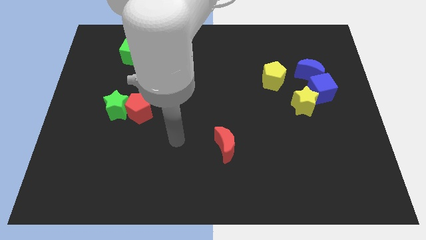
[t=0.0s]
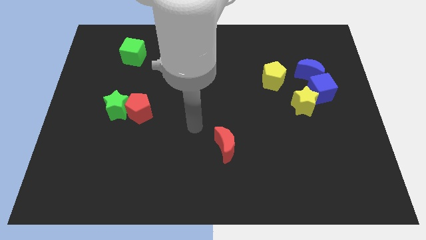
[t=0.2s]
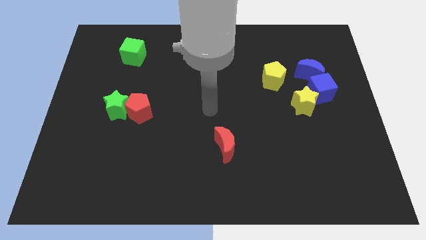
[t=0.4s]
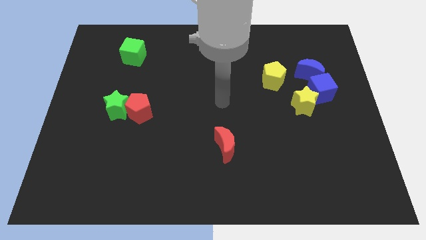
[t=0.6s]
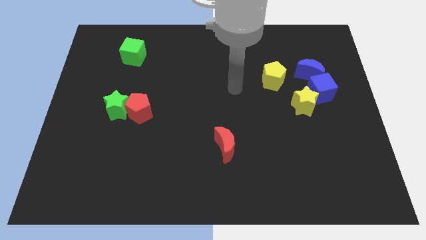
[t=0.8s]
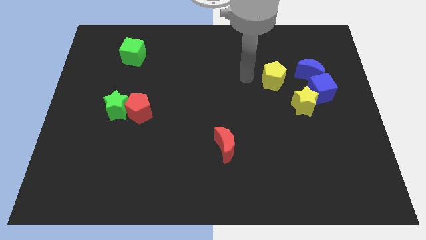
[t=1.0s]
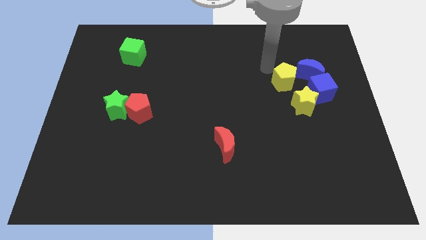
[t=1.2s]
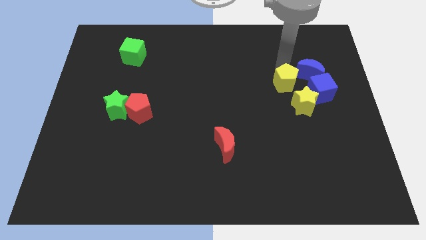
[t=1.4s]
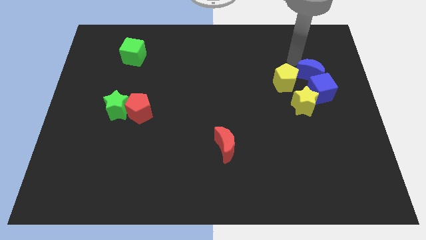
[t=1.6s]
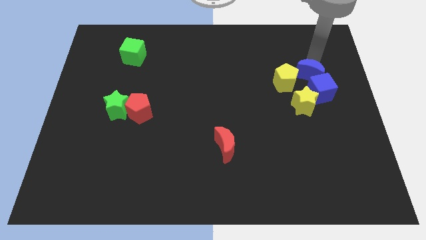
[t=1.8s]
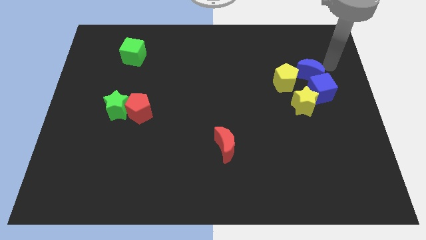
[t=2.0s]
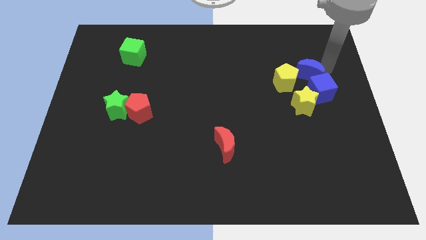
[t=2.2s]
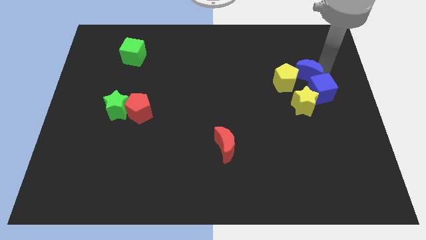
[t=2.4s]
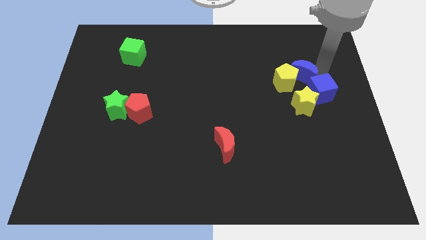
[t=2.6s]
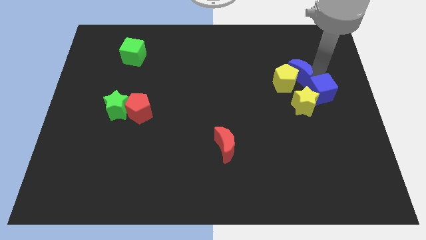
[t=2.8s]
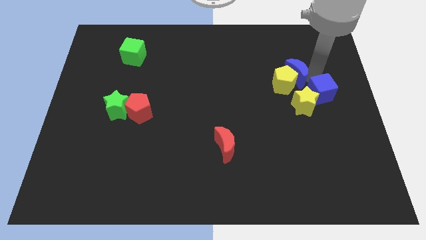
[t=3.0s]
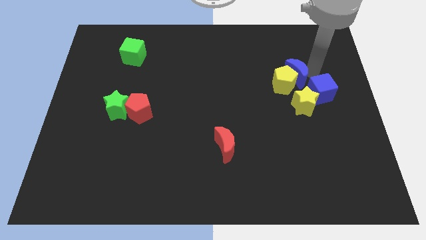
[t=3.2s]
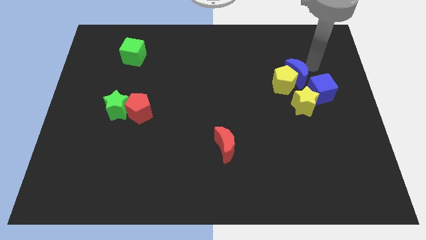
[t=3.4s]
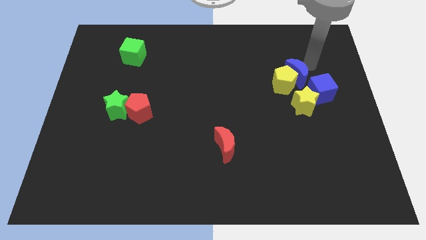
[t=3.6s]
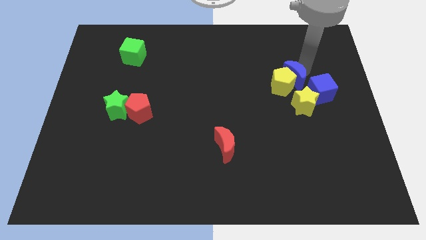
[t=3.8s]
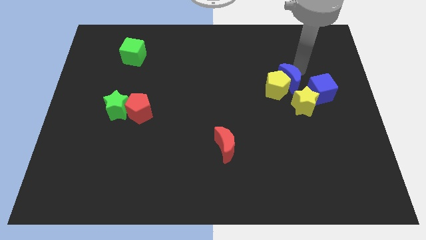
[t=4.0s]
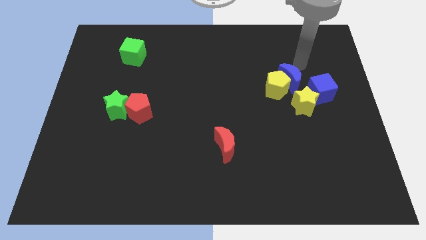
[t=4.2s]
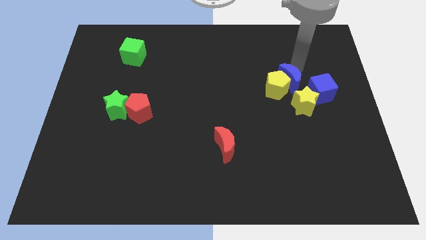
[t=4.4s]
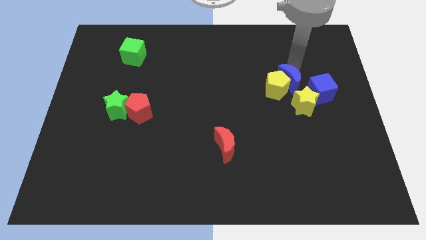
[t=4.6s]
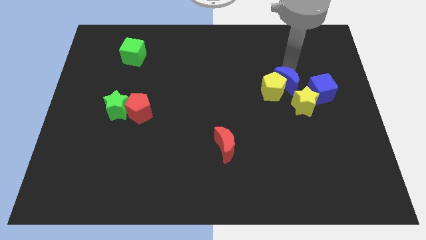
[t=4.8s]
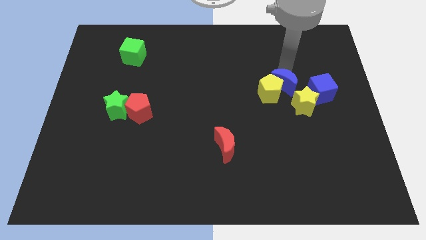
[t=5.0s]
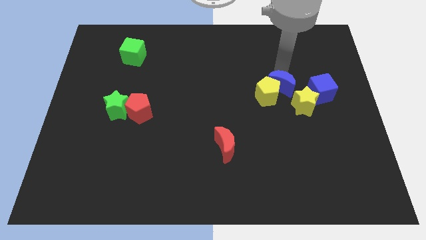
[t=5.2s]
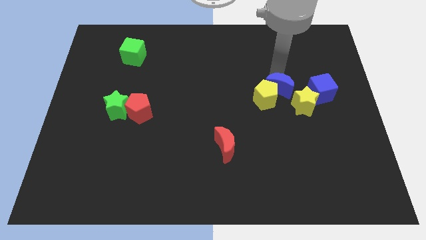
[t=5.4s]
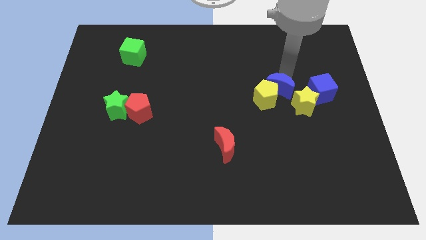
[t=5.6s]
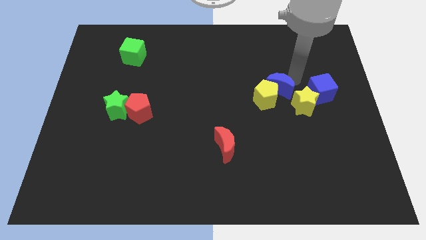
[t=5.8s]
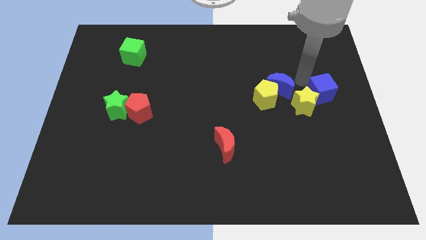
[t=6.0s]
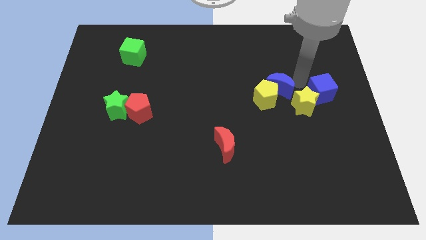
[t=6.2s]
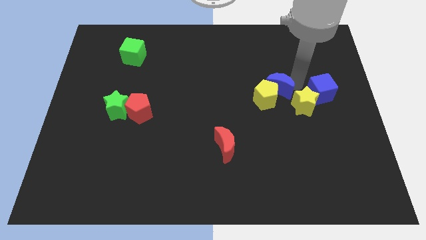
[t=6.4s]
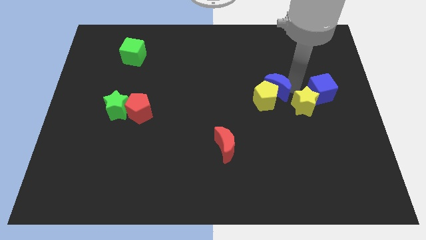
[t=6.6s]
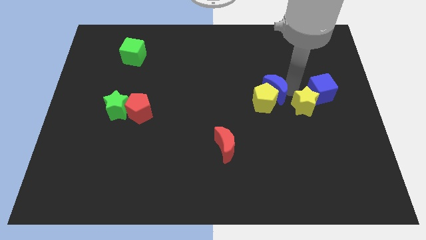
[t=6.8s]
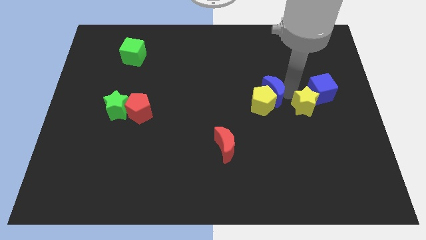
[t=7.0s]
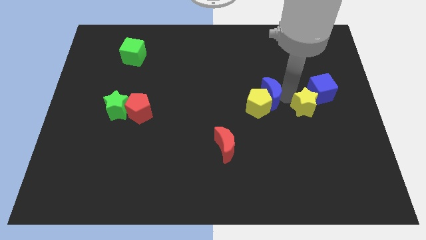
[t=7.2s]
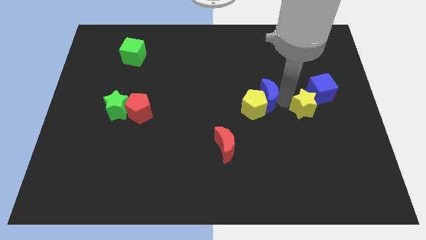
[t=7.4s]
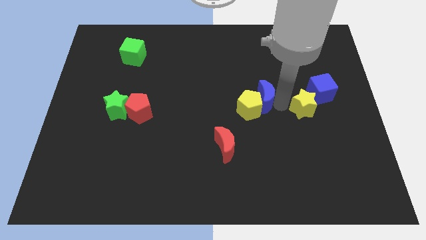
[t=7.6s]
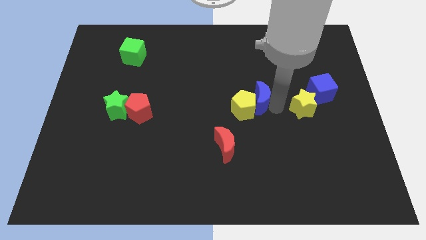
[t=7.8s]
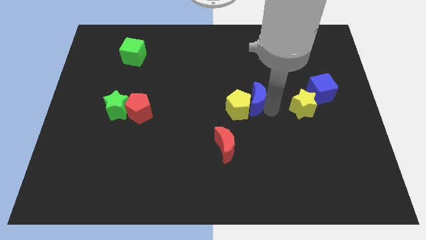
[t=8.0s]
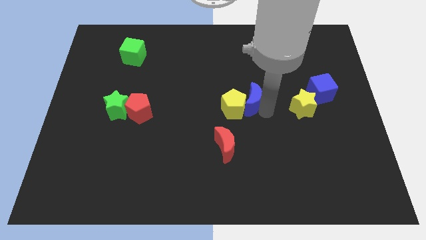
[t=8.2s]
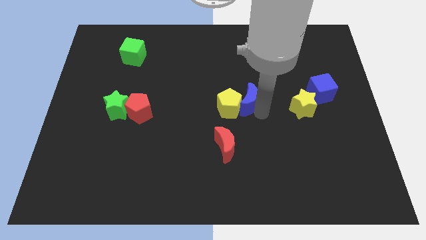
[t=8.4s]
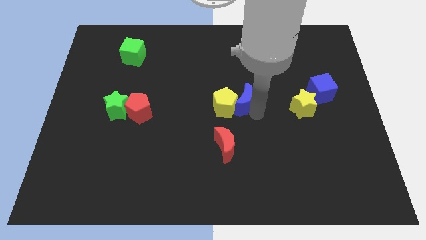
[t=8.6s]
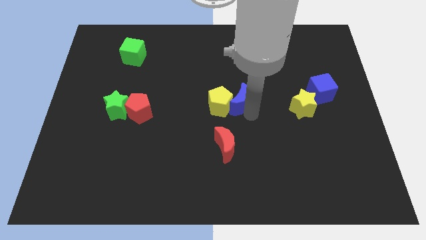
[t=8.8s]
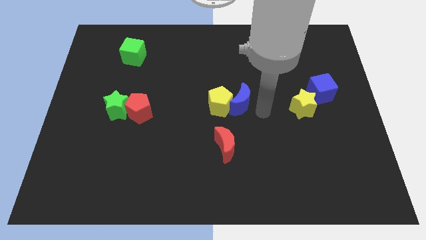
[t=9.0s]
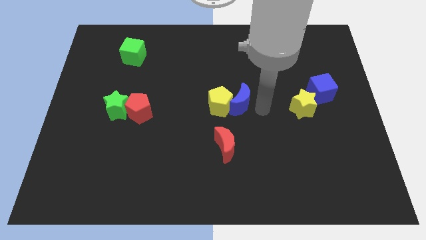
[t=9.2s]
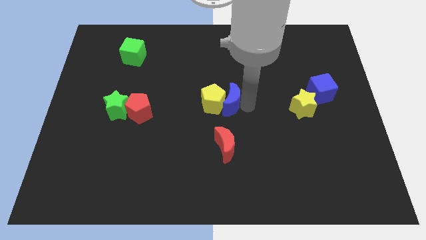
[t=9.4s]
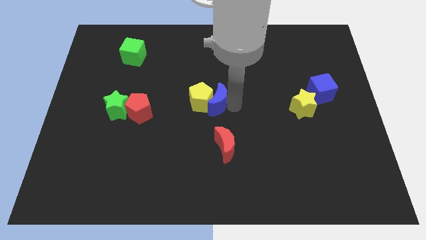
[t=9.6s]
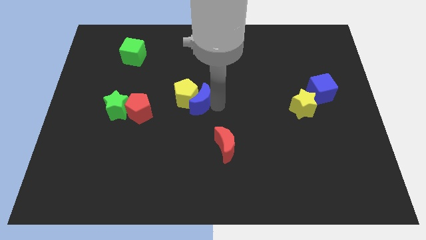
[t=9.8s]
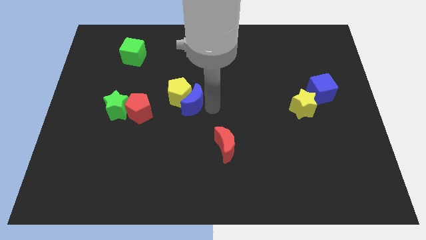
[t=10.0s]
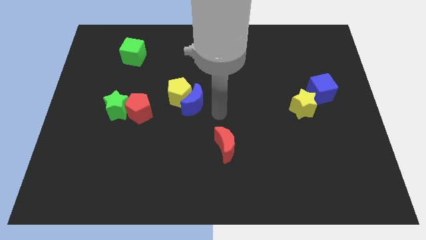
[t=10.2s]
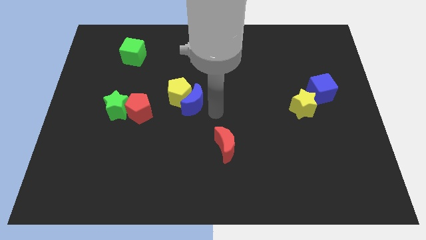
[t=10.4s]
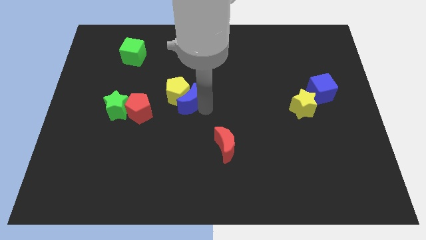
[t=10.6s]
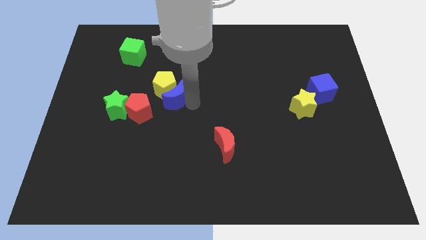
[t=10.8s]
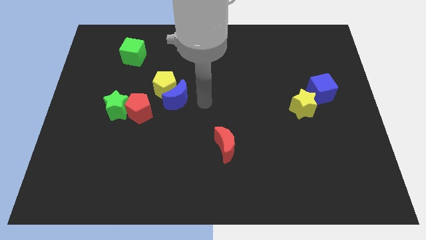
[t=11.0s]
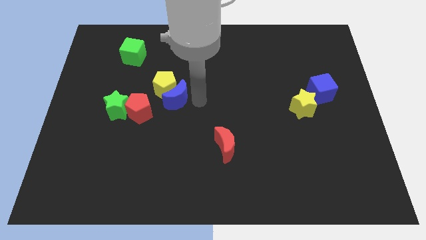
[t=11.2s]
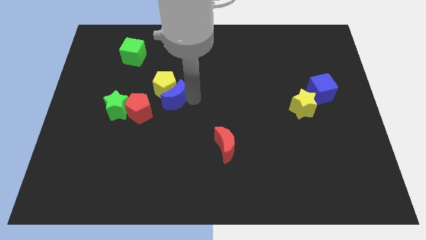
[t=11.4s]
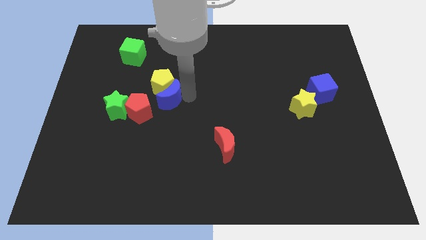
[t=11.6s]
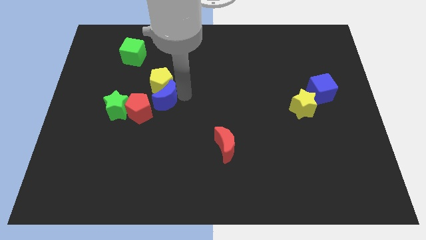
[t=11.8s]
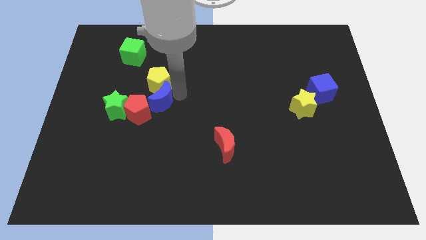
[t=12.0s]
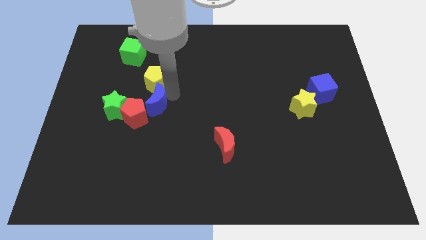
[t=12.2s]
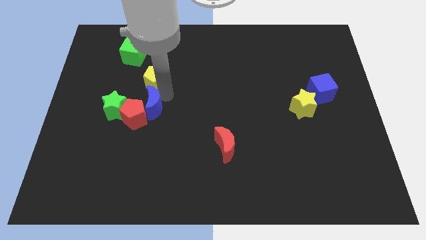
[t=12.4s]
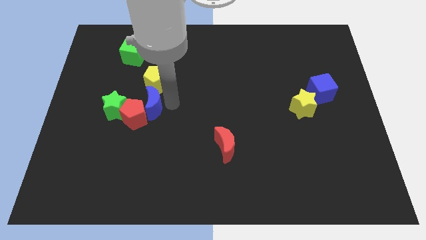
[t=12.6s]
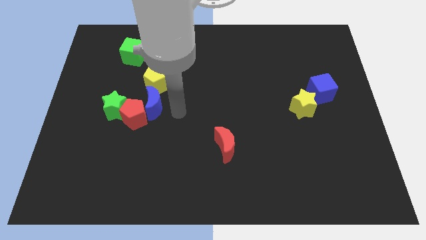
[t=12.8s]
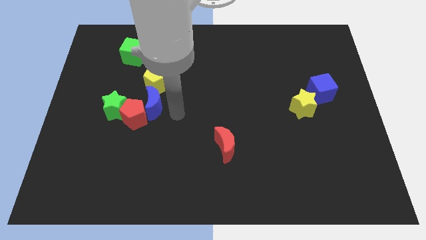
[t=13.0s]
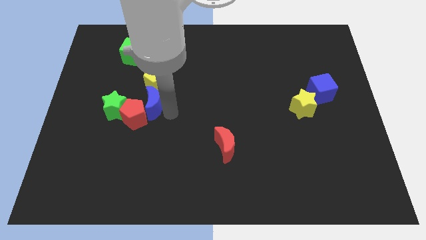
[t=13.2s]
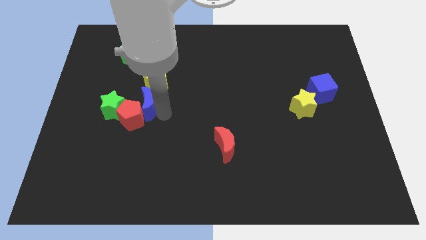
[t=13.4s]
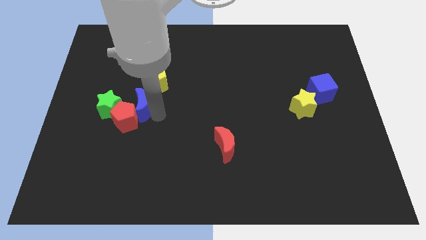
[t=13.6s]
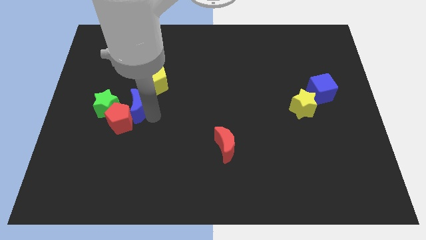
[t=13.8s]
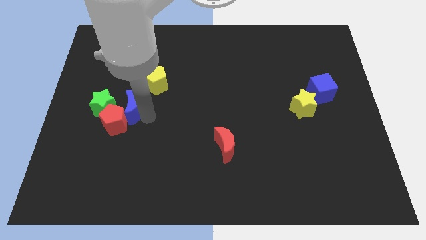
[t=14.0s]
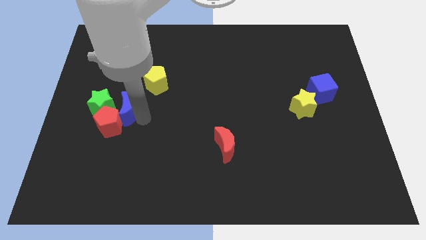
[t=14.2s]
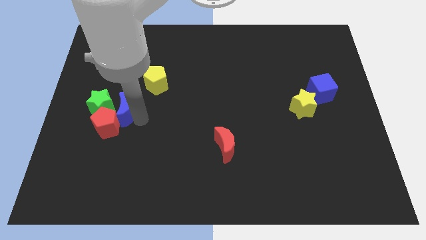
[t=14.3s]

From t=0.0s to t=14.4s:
push the blue moon next to the green star
